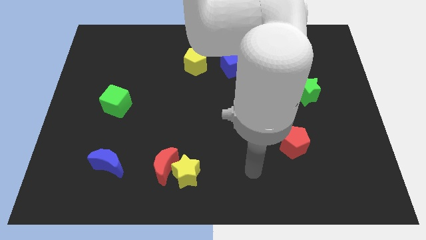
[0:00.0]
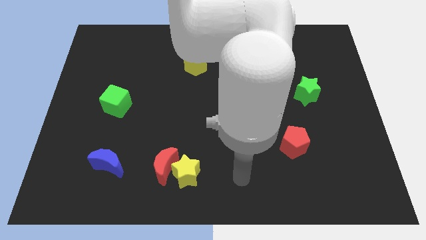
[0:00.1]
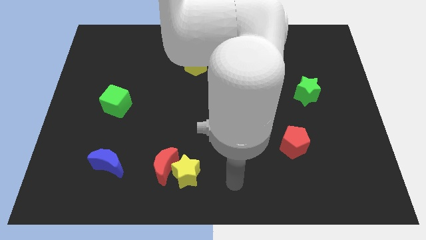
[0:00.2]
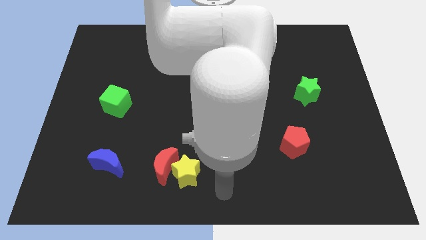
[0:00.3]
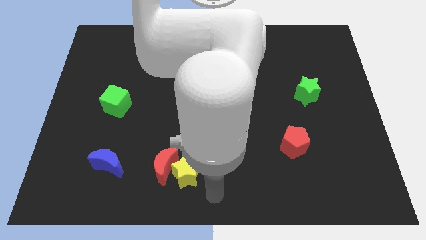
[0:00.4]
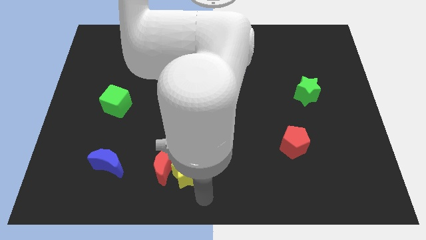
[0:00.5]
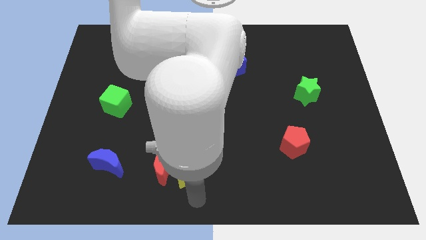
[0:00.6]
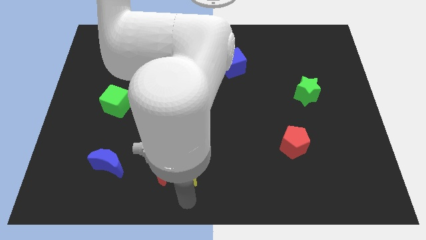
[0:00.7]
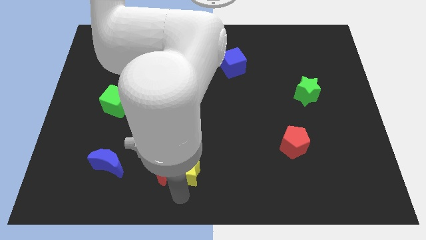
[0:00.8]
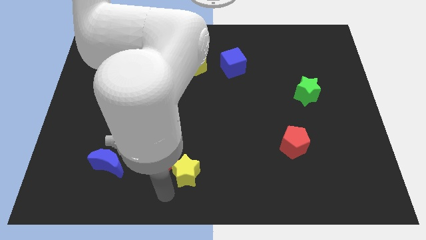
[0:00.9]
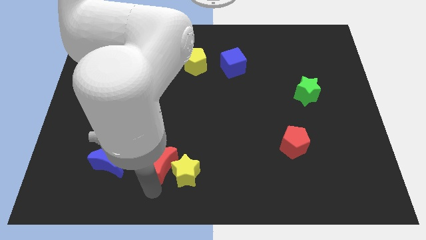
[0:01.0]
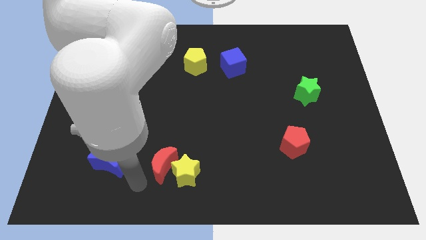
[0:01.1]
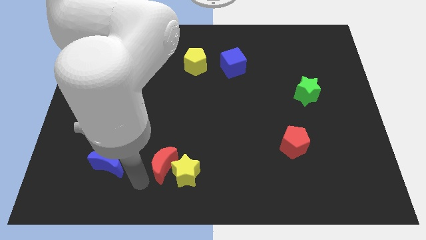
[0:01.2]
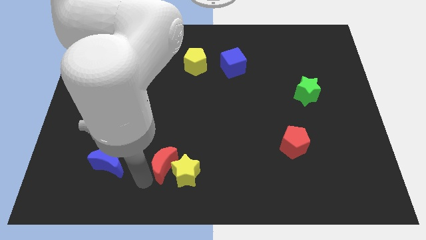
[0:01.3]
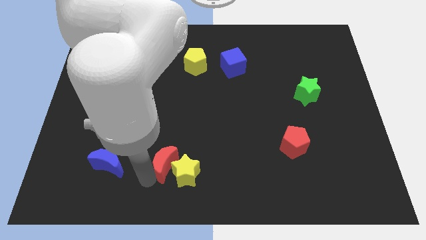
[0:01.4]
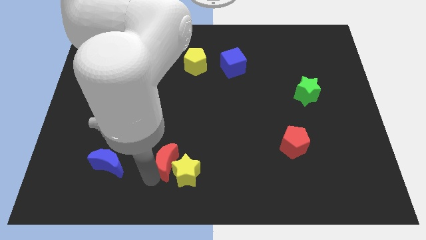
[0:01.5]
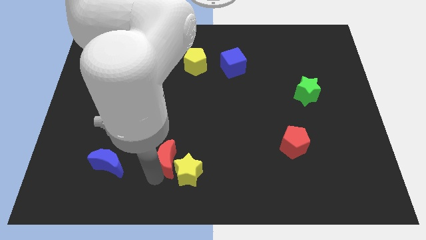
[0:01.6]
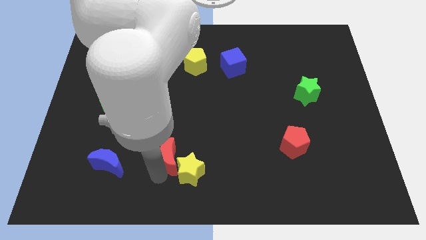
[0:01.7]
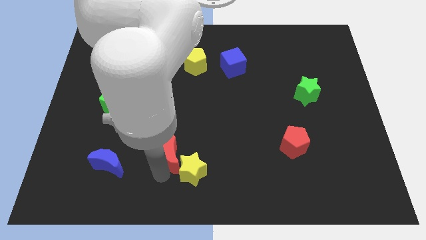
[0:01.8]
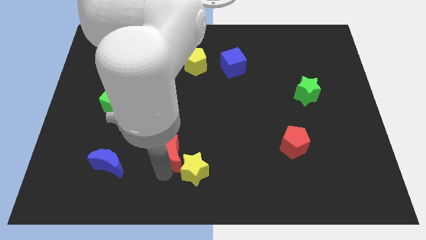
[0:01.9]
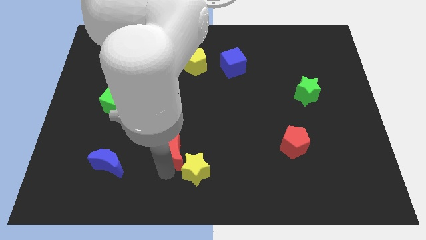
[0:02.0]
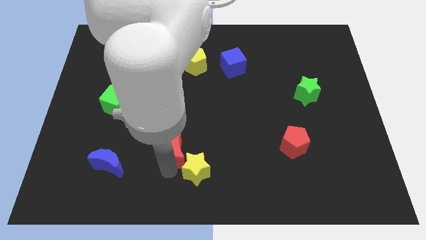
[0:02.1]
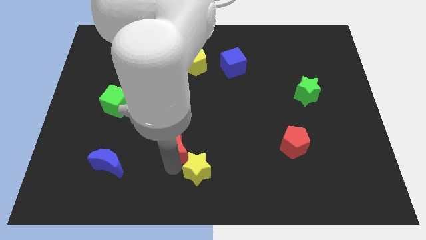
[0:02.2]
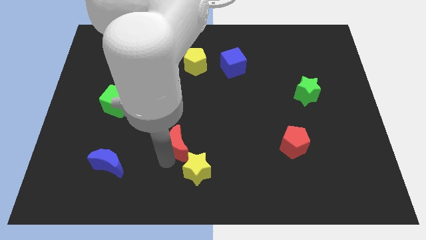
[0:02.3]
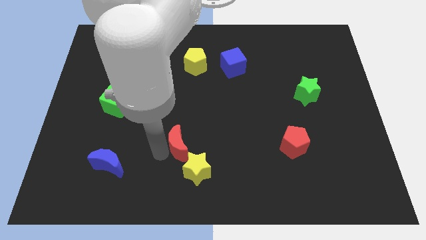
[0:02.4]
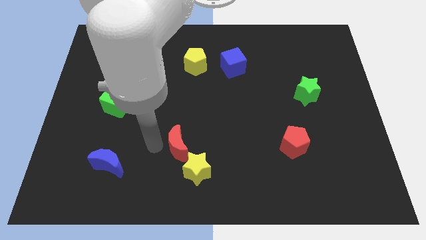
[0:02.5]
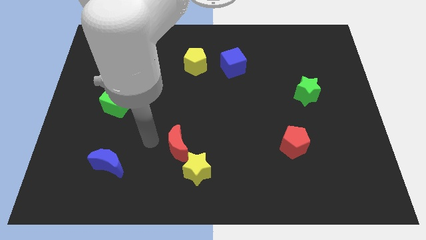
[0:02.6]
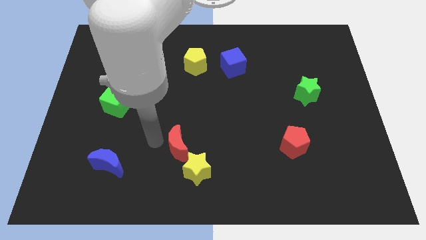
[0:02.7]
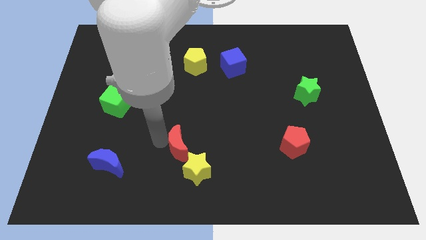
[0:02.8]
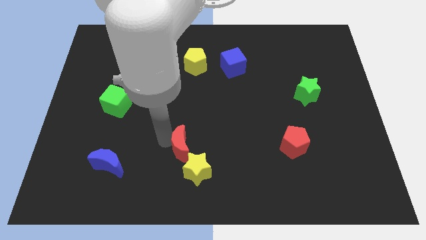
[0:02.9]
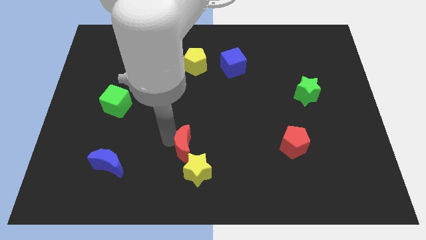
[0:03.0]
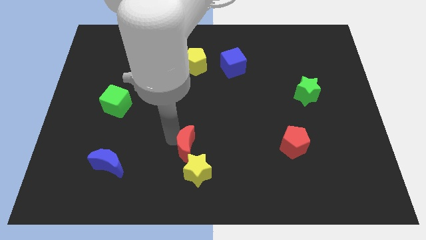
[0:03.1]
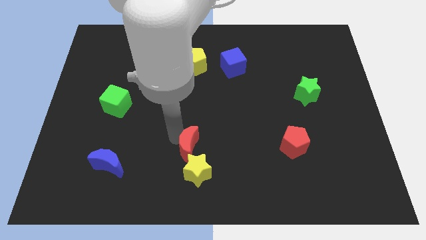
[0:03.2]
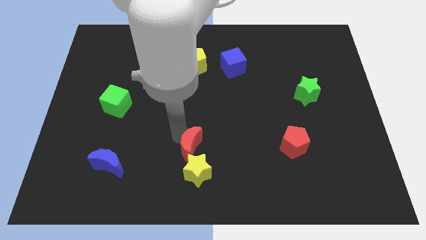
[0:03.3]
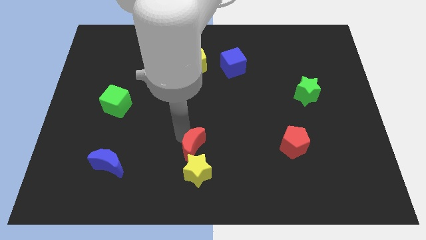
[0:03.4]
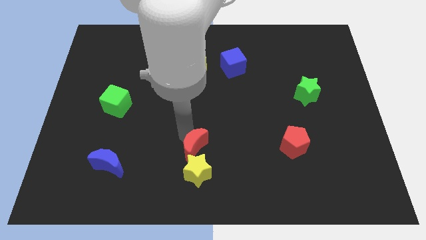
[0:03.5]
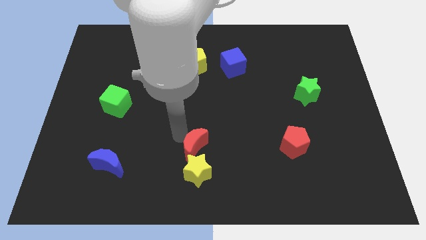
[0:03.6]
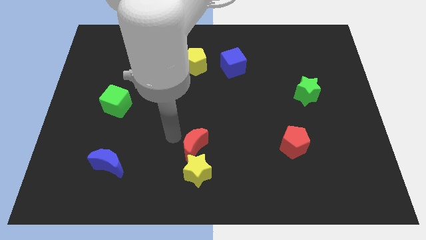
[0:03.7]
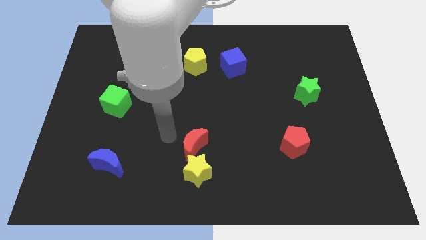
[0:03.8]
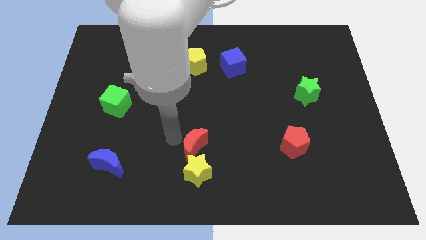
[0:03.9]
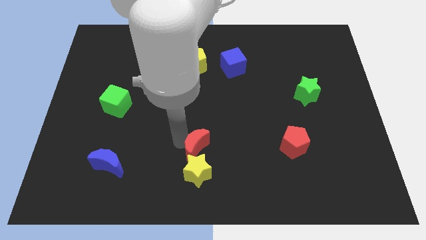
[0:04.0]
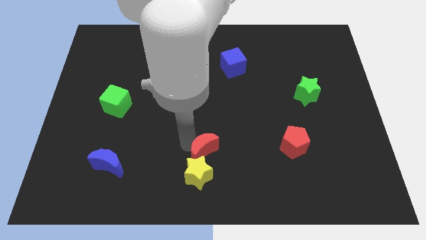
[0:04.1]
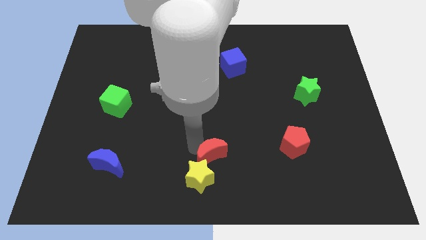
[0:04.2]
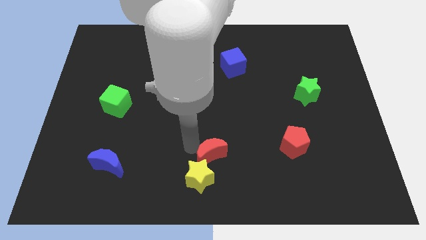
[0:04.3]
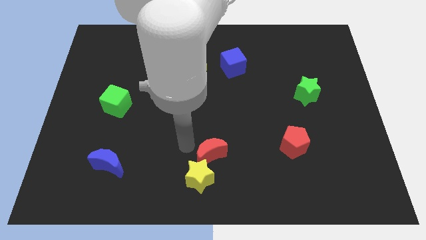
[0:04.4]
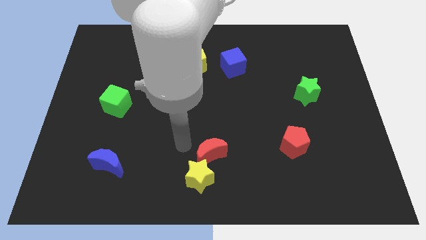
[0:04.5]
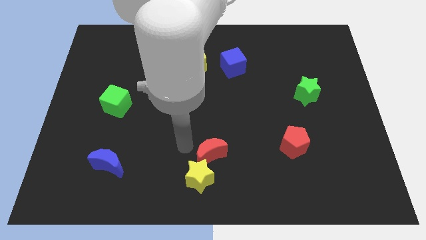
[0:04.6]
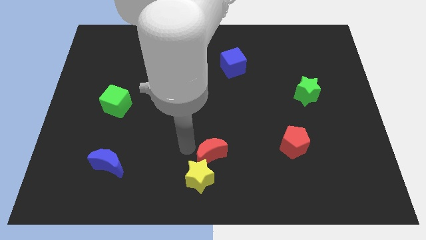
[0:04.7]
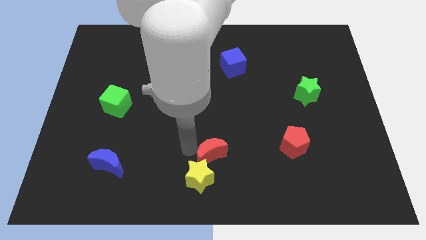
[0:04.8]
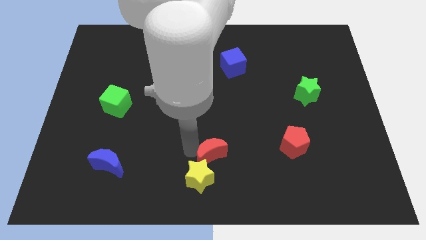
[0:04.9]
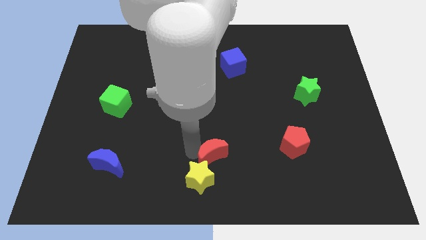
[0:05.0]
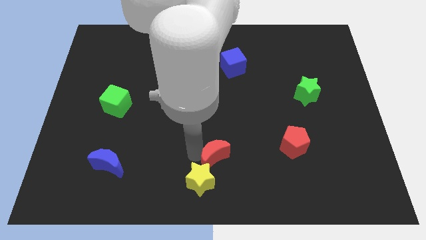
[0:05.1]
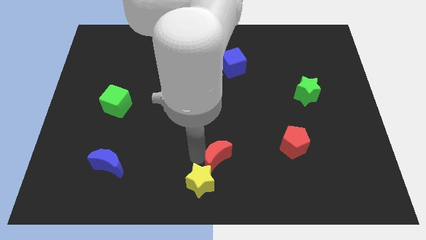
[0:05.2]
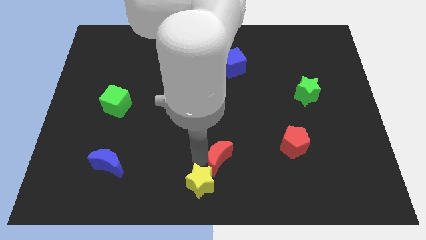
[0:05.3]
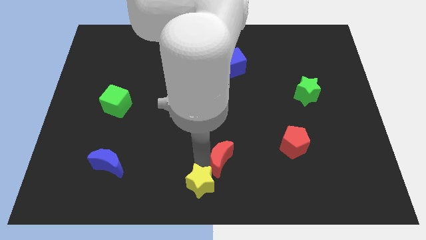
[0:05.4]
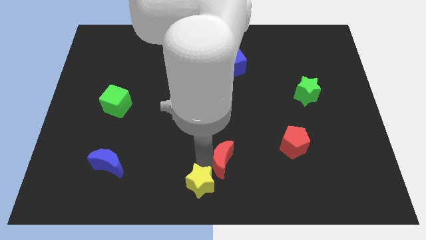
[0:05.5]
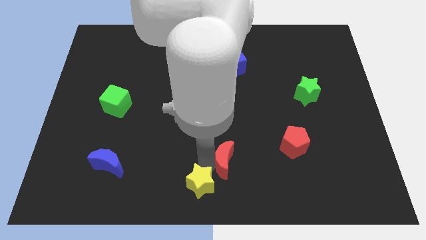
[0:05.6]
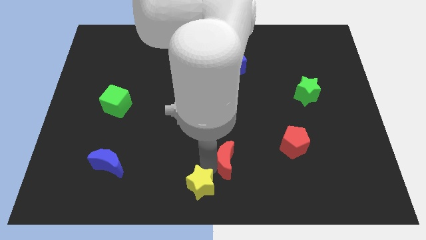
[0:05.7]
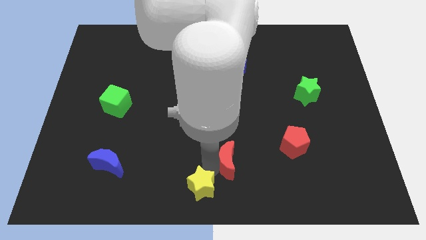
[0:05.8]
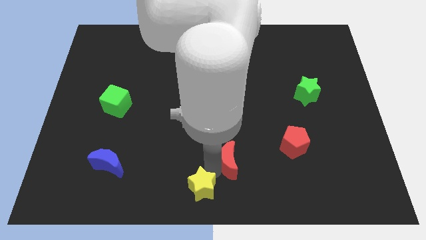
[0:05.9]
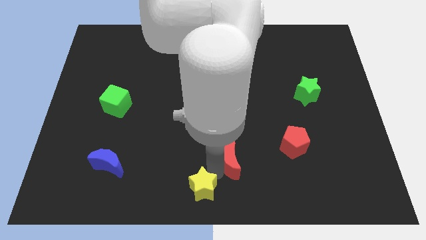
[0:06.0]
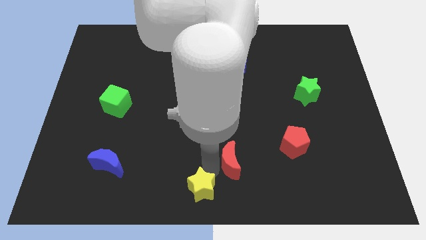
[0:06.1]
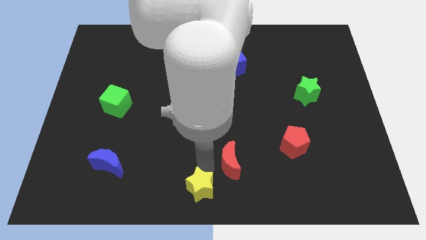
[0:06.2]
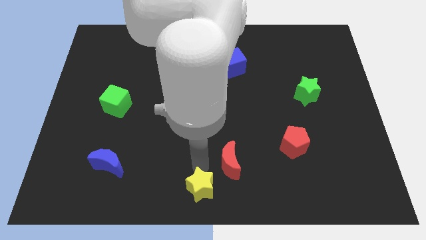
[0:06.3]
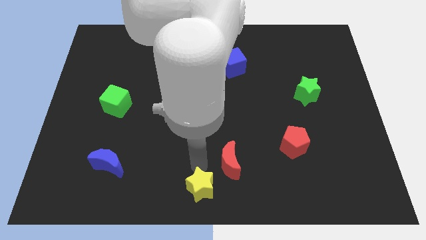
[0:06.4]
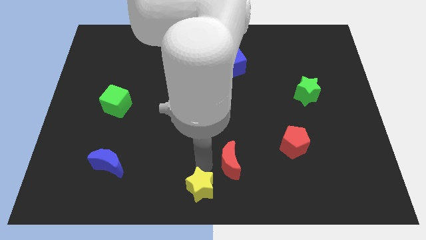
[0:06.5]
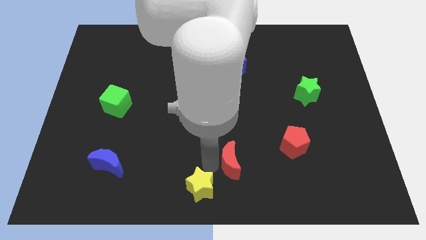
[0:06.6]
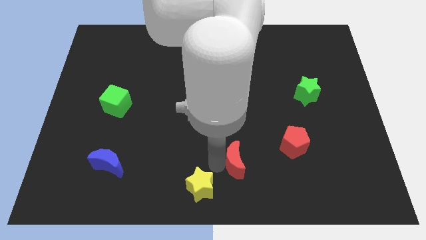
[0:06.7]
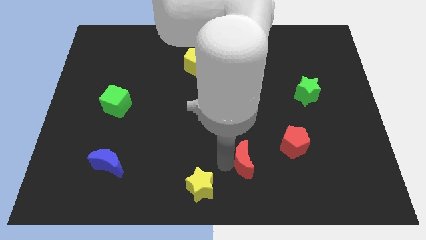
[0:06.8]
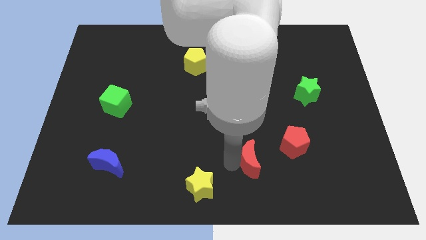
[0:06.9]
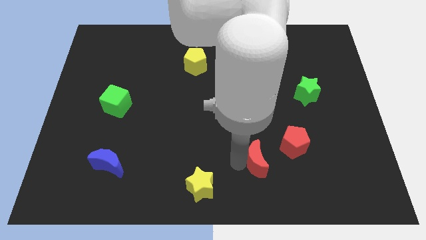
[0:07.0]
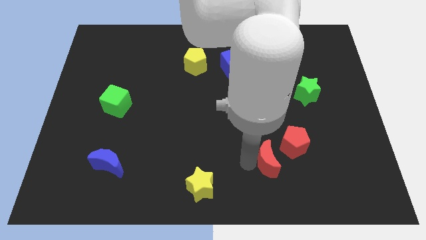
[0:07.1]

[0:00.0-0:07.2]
move the red moon right

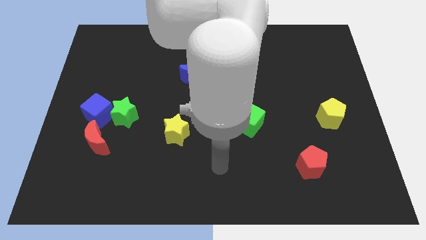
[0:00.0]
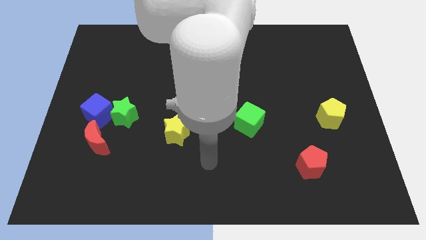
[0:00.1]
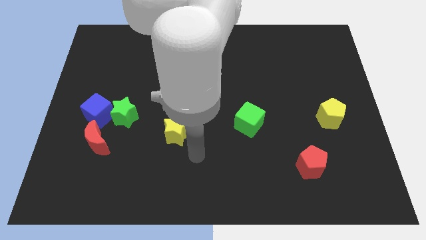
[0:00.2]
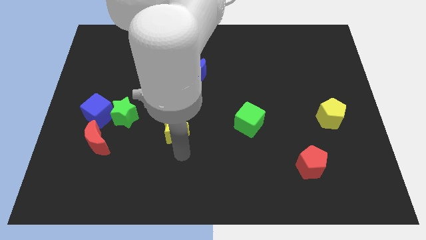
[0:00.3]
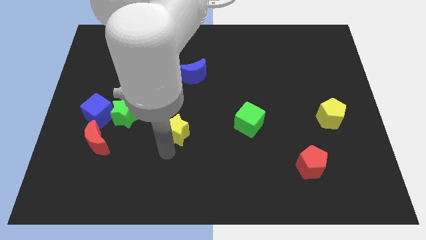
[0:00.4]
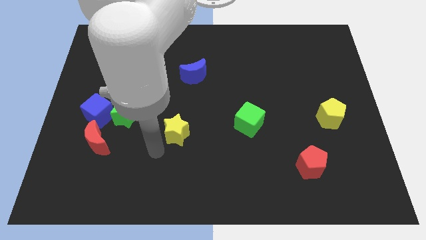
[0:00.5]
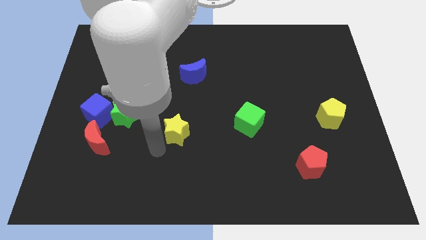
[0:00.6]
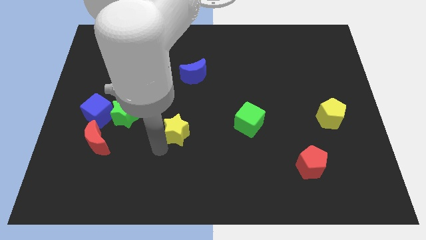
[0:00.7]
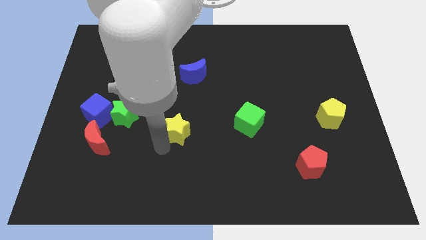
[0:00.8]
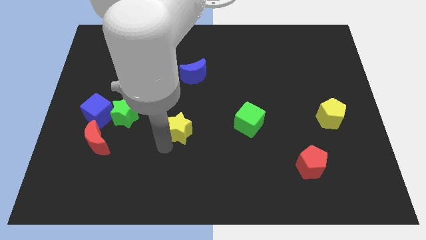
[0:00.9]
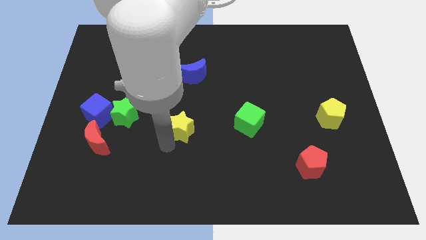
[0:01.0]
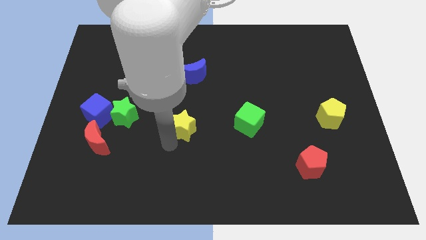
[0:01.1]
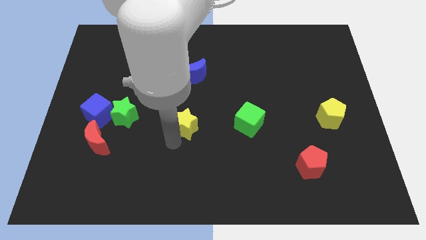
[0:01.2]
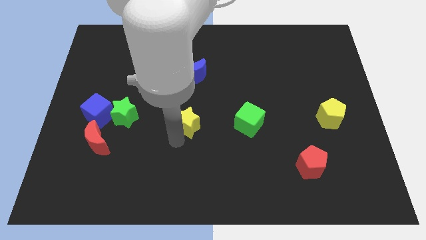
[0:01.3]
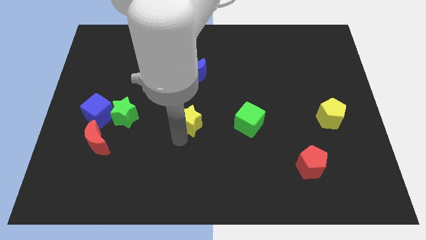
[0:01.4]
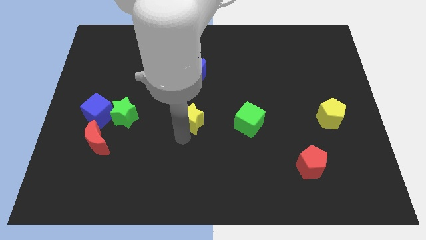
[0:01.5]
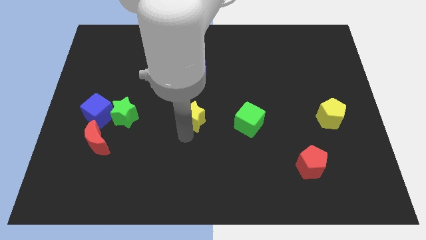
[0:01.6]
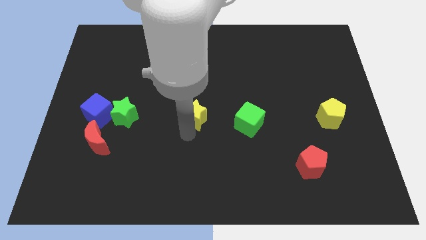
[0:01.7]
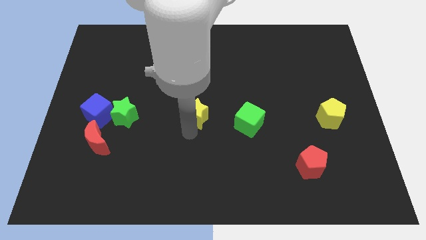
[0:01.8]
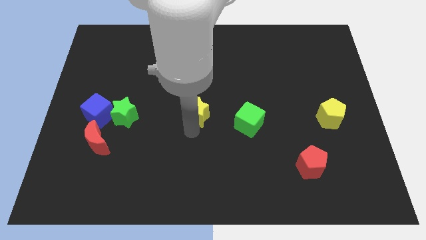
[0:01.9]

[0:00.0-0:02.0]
slightly push the yellow star up and right diagonally
